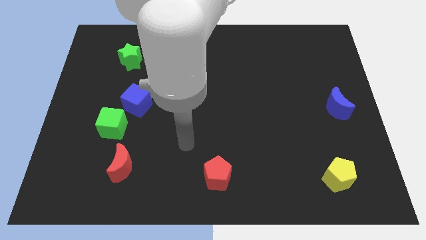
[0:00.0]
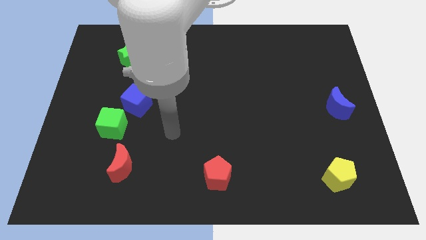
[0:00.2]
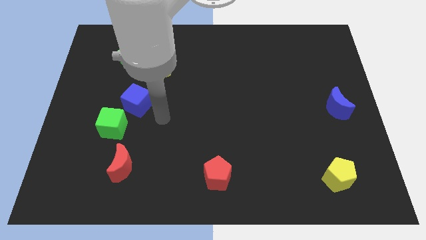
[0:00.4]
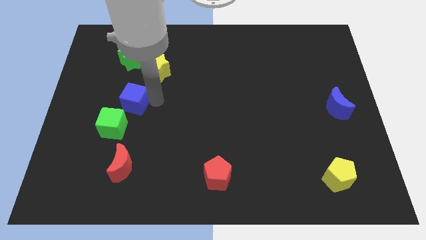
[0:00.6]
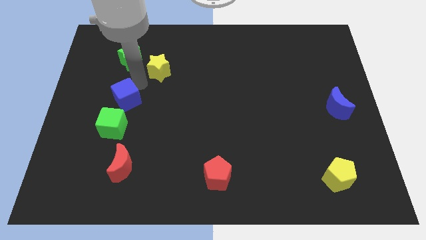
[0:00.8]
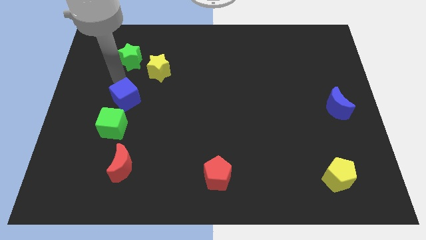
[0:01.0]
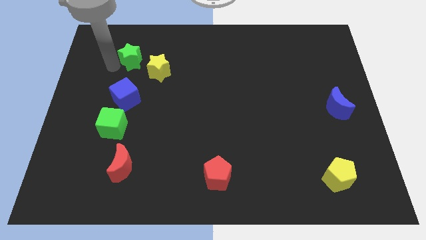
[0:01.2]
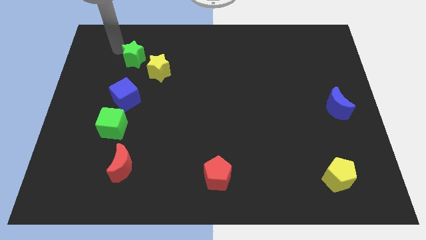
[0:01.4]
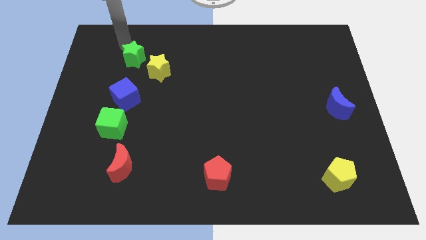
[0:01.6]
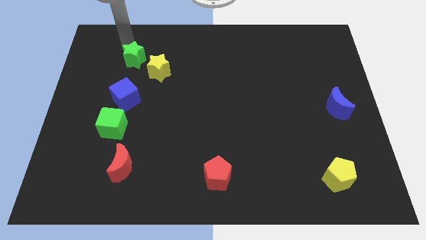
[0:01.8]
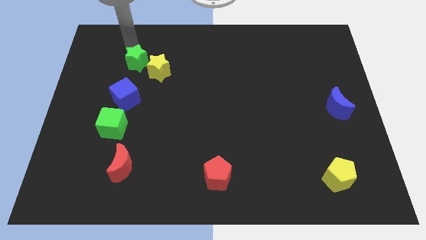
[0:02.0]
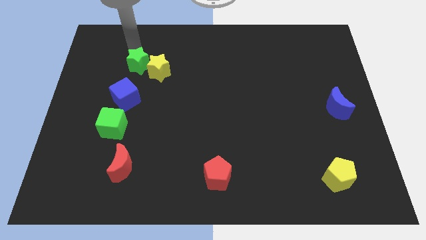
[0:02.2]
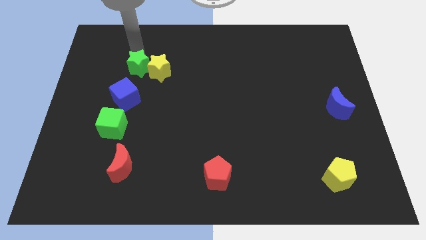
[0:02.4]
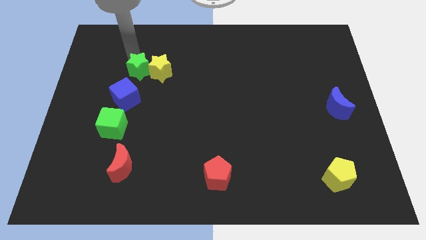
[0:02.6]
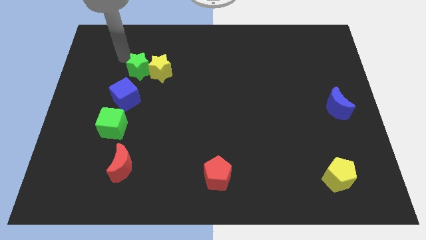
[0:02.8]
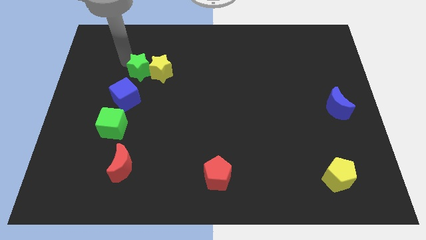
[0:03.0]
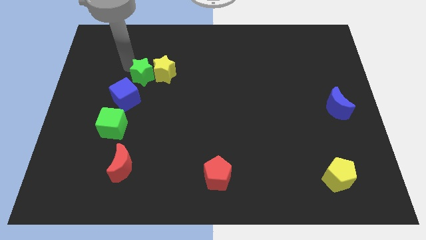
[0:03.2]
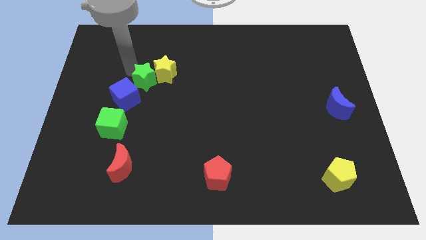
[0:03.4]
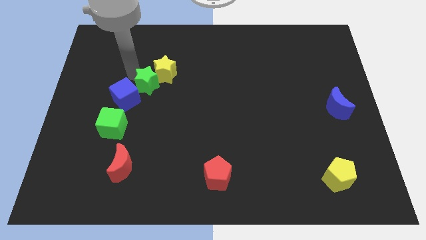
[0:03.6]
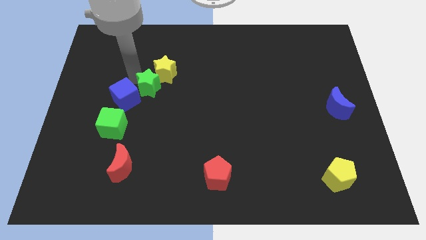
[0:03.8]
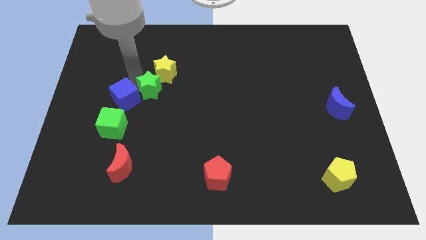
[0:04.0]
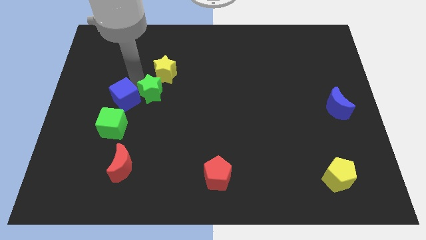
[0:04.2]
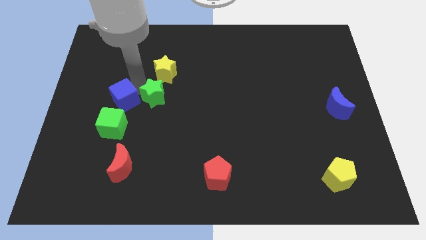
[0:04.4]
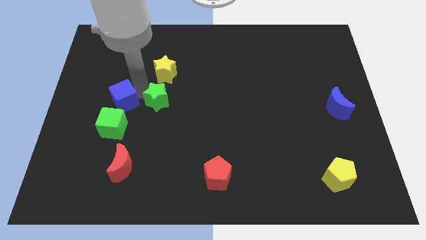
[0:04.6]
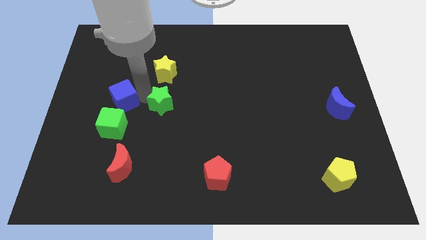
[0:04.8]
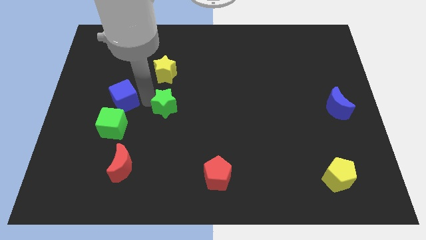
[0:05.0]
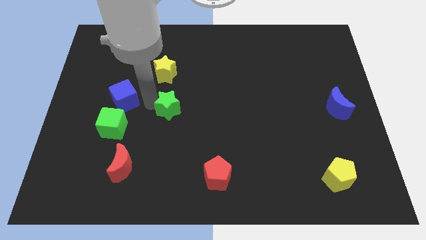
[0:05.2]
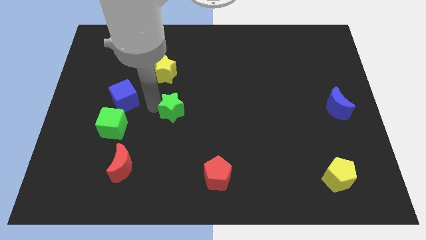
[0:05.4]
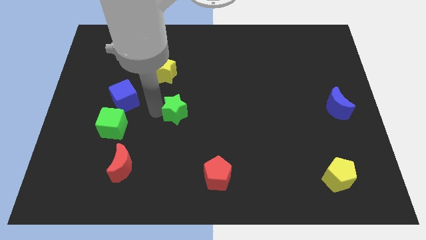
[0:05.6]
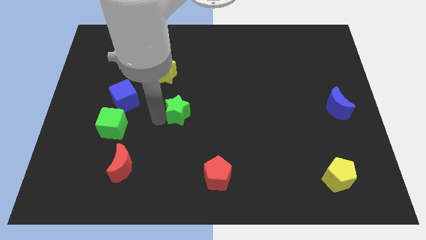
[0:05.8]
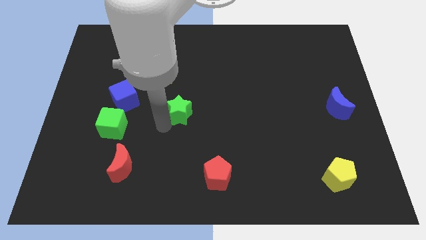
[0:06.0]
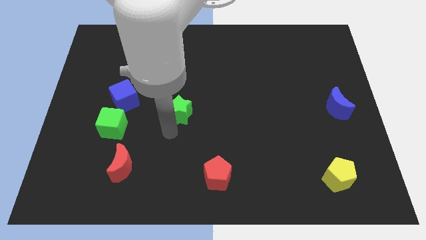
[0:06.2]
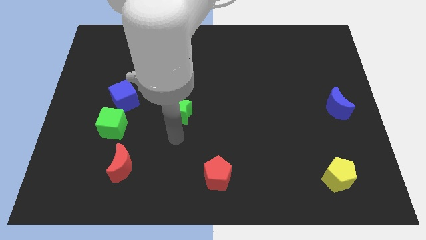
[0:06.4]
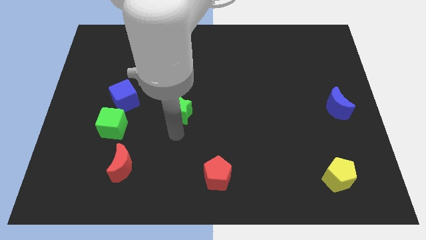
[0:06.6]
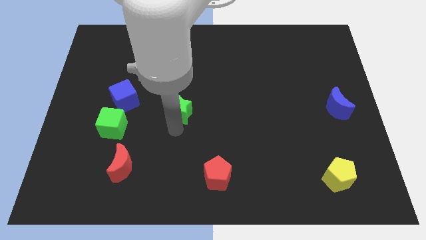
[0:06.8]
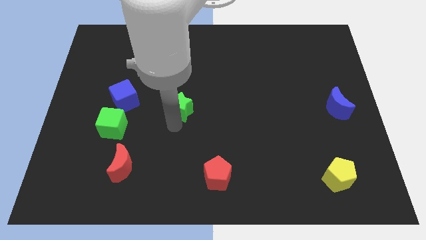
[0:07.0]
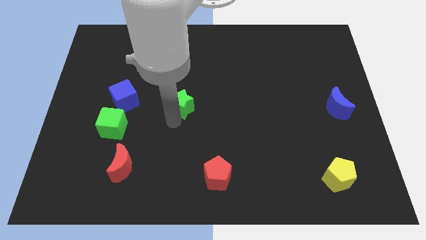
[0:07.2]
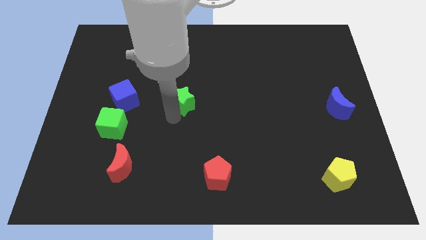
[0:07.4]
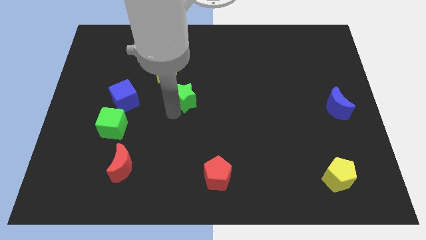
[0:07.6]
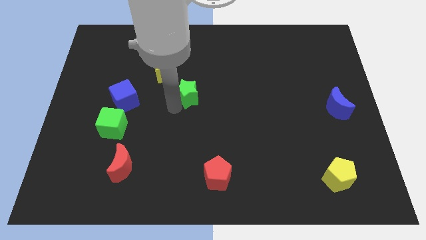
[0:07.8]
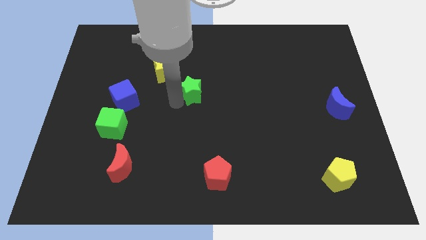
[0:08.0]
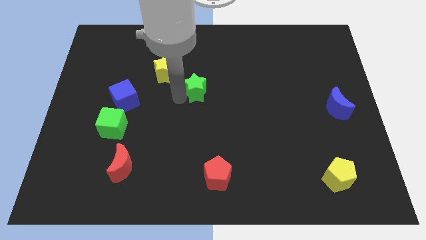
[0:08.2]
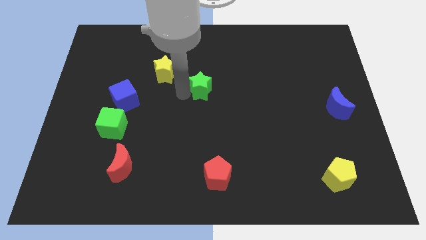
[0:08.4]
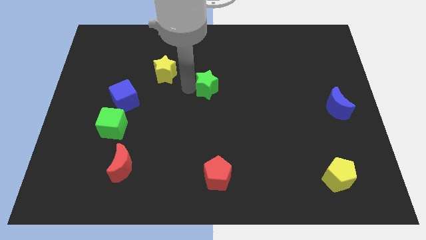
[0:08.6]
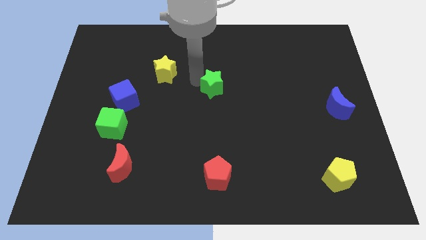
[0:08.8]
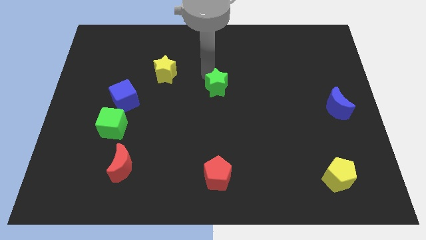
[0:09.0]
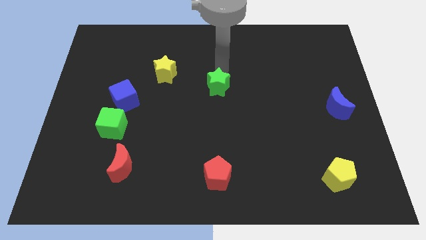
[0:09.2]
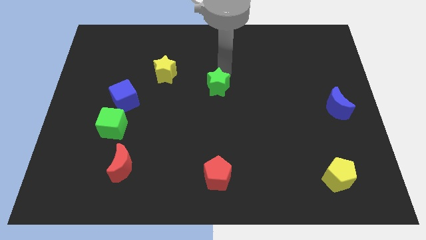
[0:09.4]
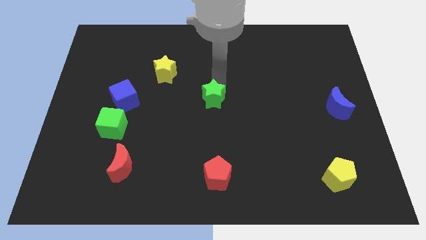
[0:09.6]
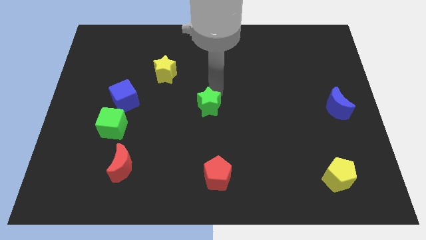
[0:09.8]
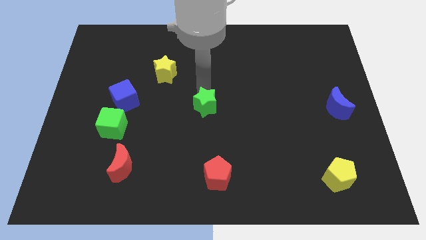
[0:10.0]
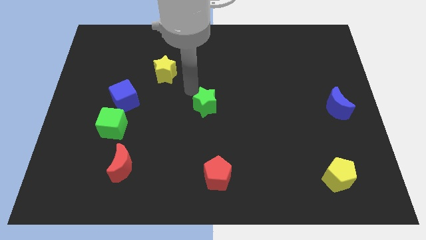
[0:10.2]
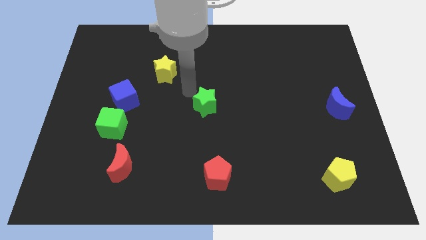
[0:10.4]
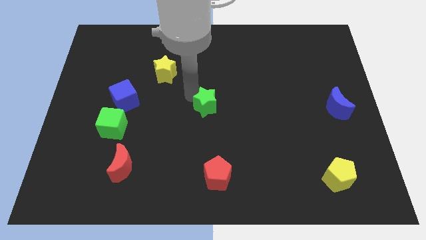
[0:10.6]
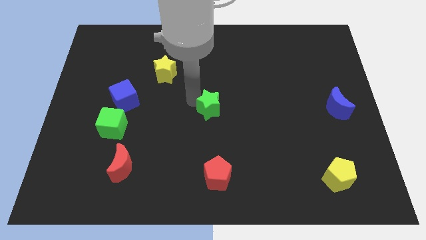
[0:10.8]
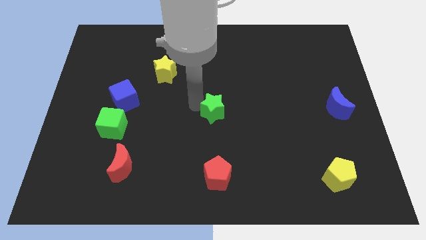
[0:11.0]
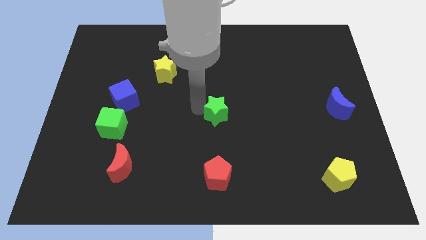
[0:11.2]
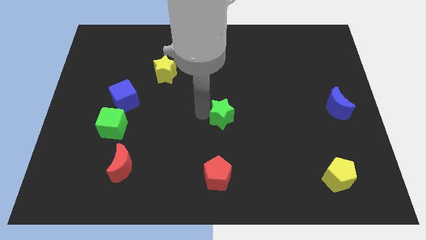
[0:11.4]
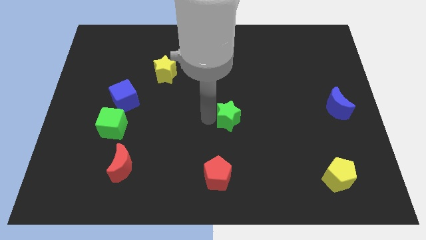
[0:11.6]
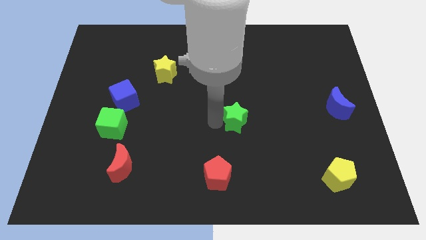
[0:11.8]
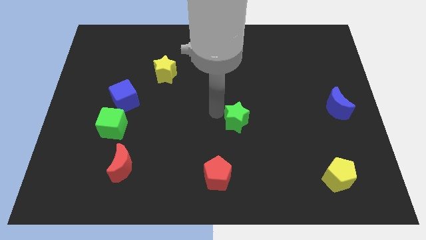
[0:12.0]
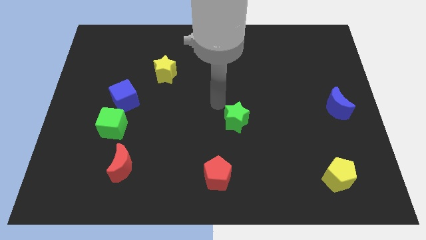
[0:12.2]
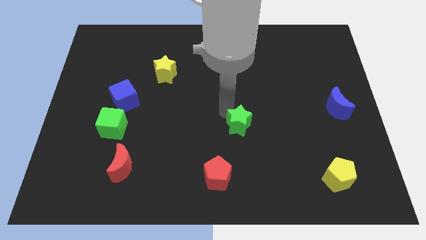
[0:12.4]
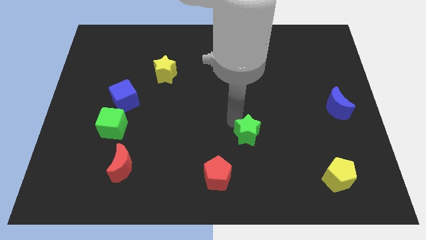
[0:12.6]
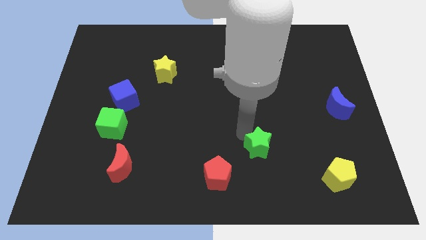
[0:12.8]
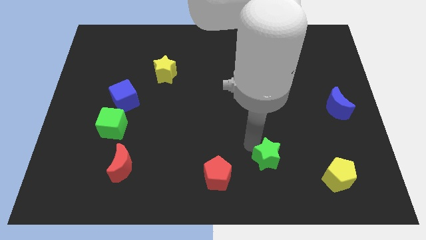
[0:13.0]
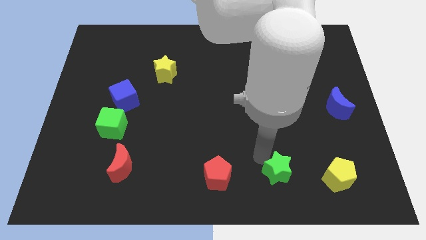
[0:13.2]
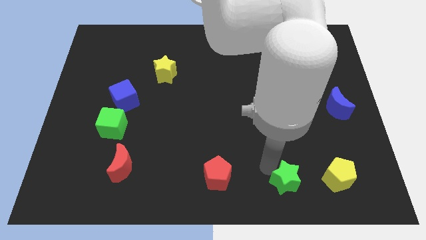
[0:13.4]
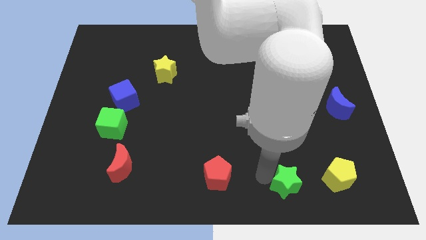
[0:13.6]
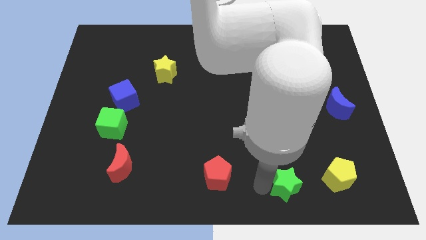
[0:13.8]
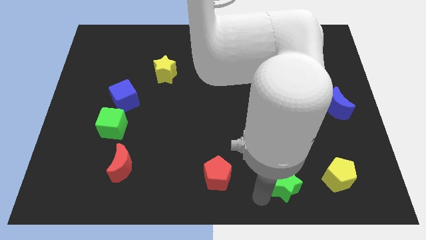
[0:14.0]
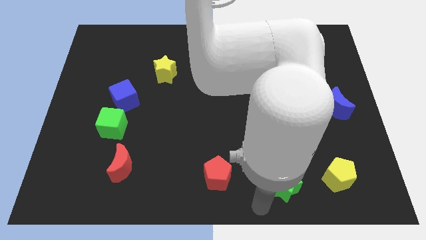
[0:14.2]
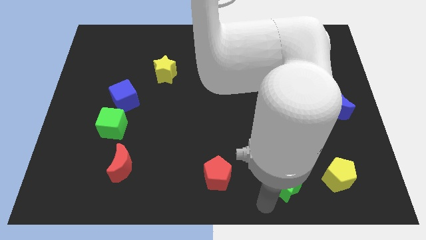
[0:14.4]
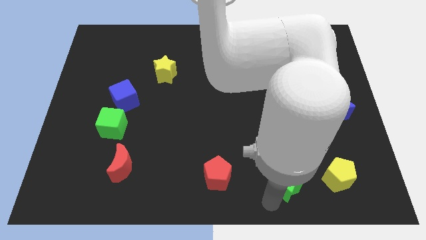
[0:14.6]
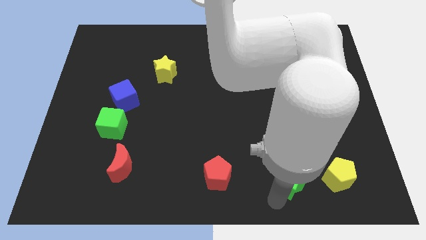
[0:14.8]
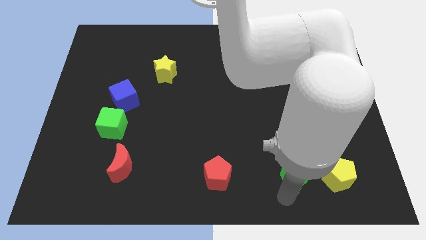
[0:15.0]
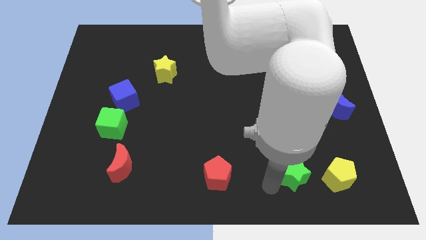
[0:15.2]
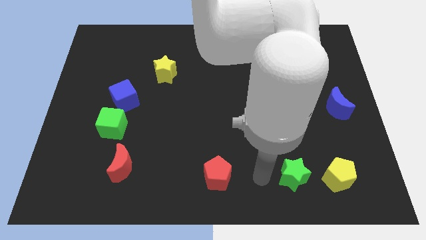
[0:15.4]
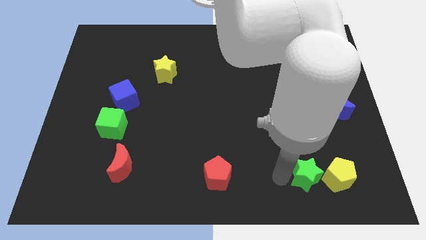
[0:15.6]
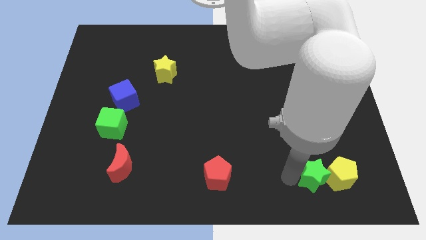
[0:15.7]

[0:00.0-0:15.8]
slide the green star close to the yellow pentagon
